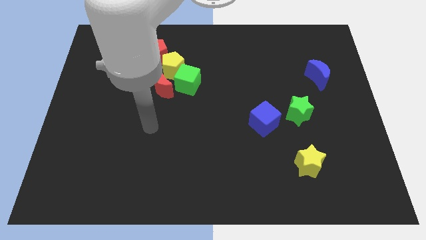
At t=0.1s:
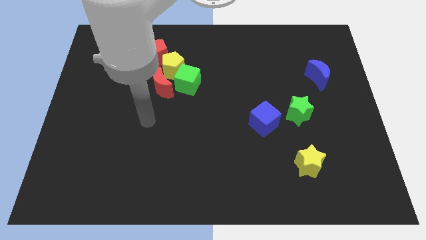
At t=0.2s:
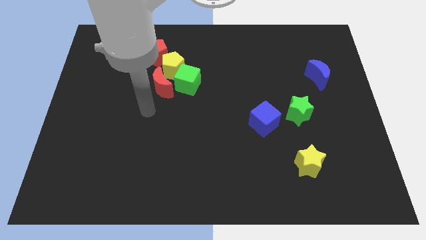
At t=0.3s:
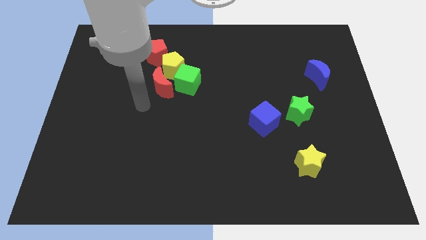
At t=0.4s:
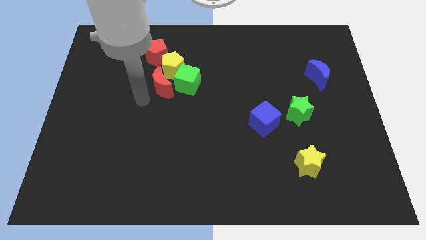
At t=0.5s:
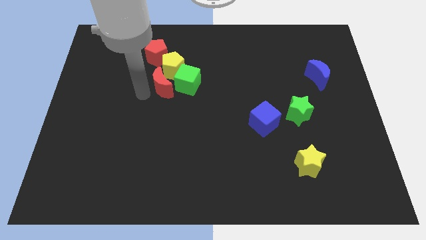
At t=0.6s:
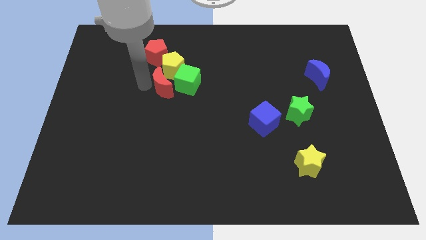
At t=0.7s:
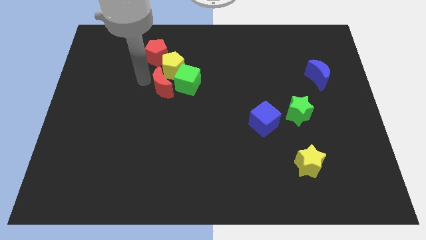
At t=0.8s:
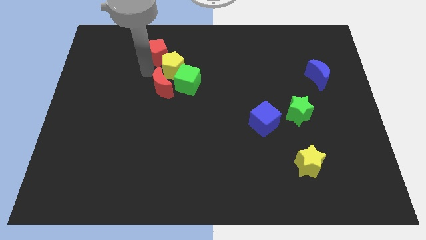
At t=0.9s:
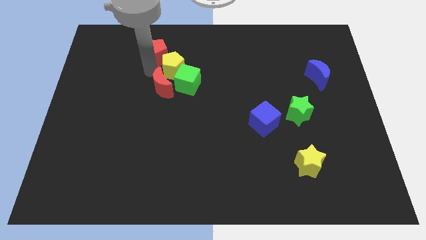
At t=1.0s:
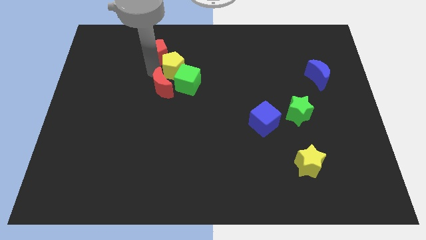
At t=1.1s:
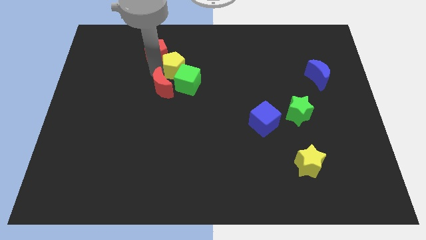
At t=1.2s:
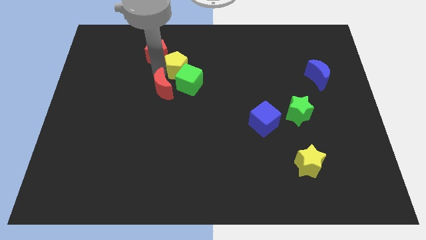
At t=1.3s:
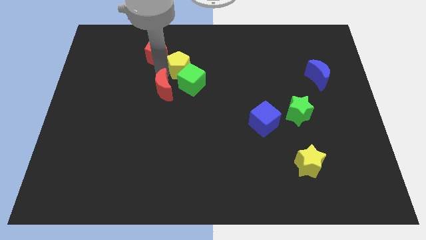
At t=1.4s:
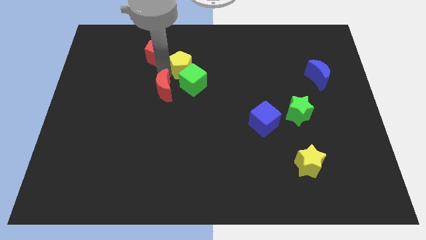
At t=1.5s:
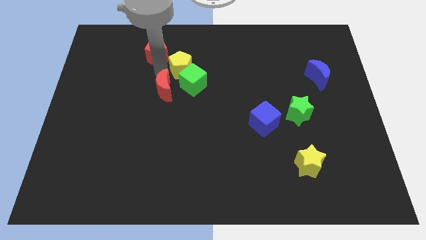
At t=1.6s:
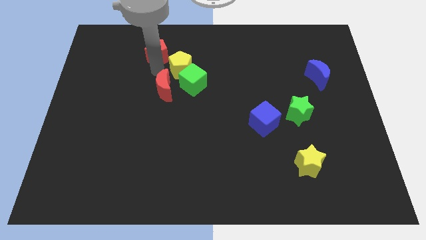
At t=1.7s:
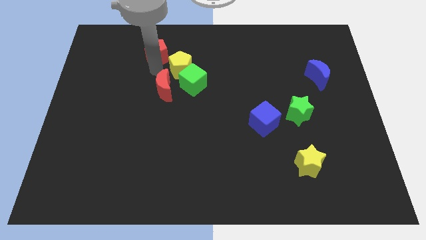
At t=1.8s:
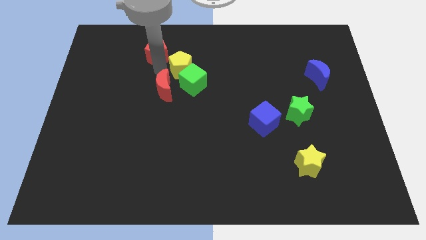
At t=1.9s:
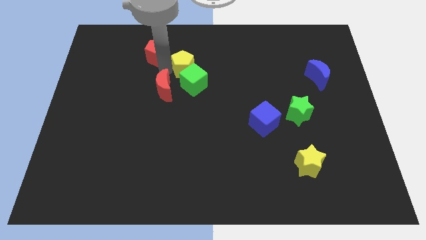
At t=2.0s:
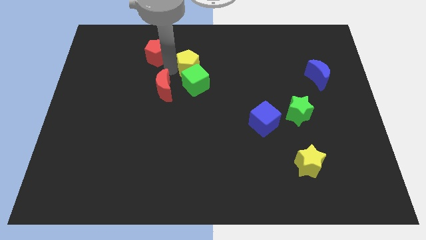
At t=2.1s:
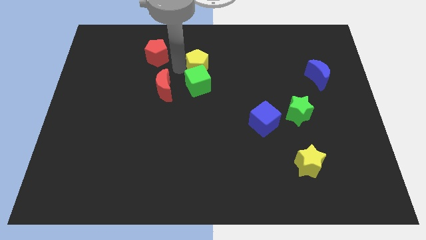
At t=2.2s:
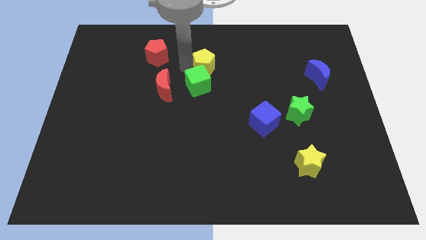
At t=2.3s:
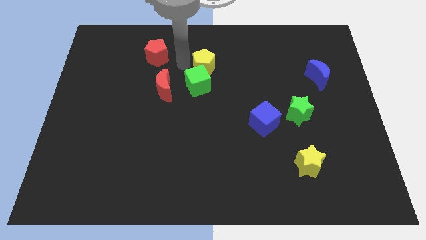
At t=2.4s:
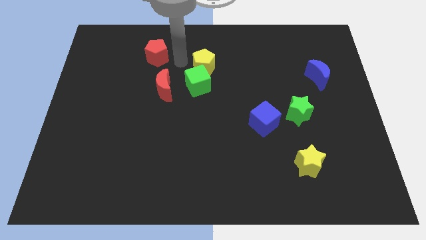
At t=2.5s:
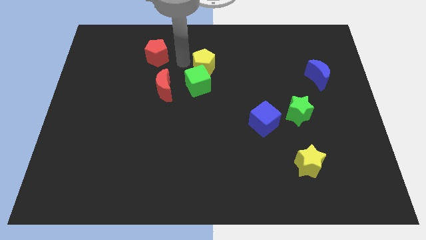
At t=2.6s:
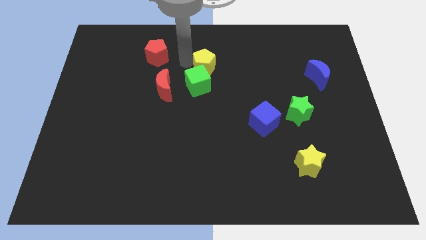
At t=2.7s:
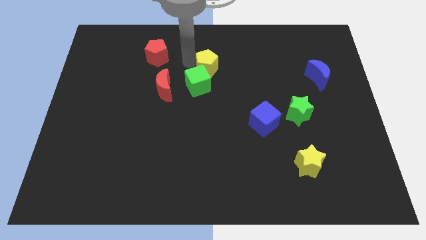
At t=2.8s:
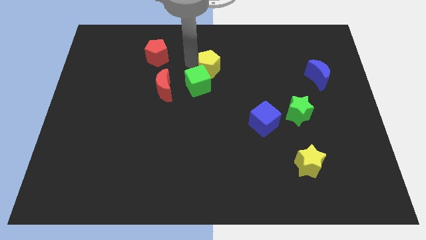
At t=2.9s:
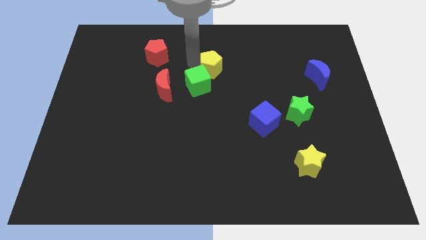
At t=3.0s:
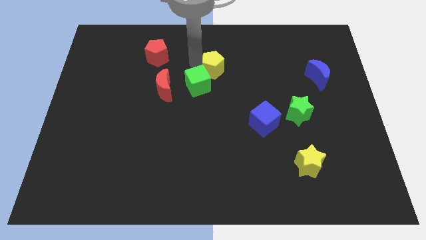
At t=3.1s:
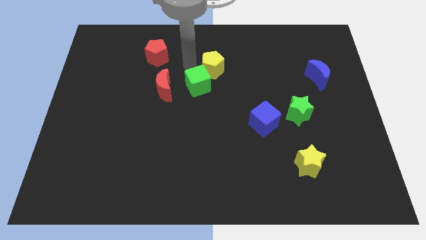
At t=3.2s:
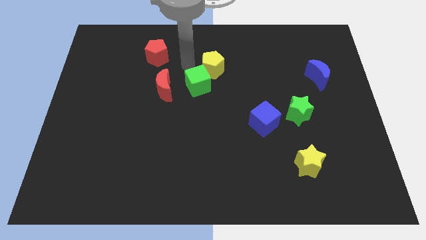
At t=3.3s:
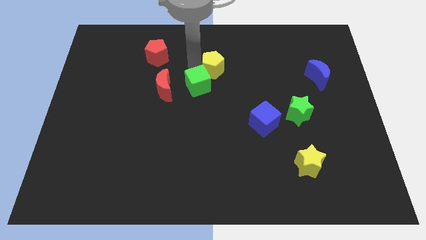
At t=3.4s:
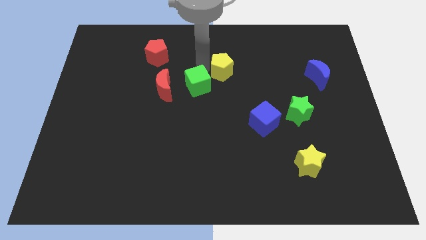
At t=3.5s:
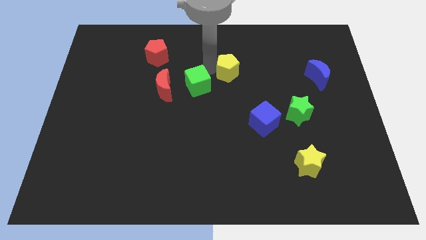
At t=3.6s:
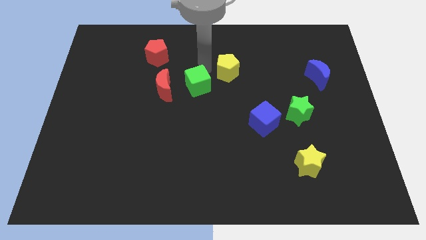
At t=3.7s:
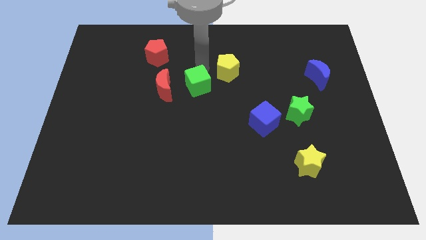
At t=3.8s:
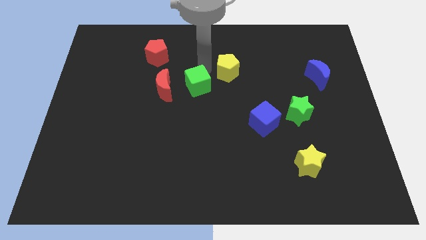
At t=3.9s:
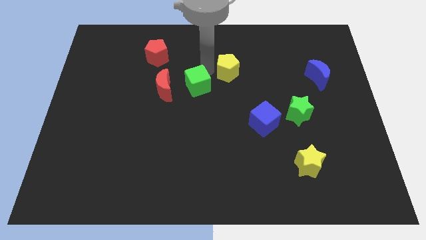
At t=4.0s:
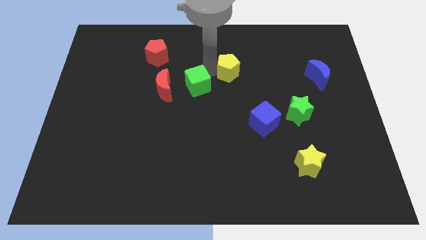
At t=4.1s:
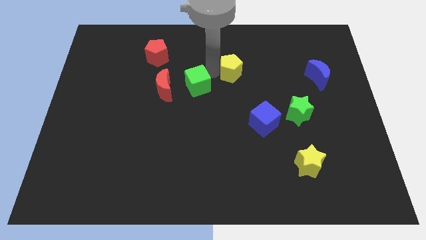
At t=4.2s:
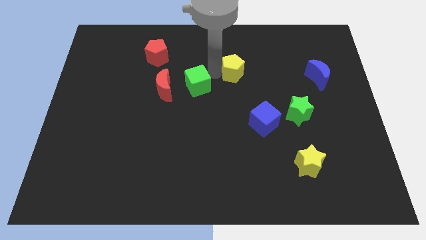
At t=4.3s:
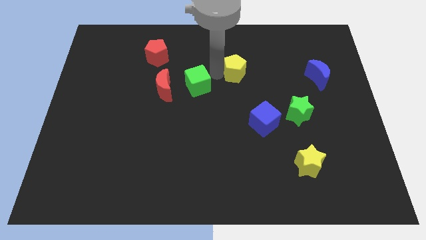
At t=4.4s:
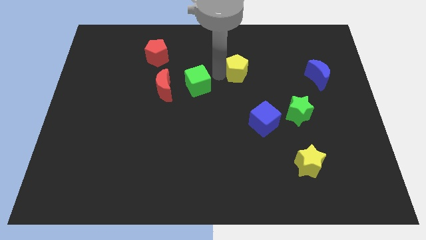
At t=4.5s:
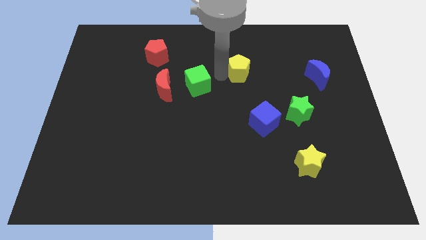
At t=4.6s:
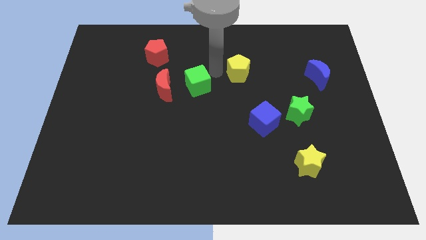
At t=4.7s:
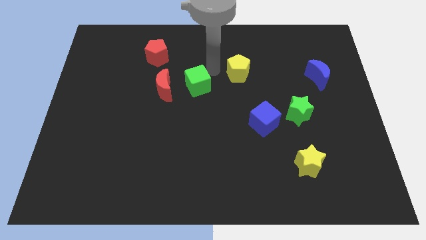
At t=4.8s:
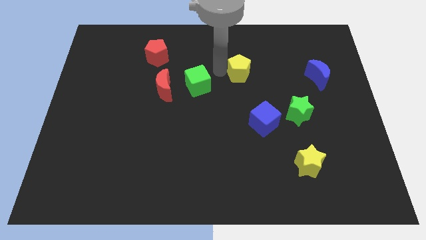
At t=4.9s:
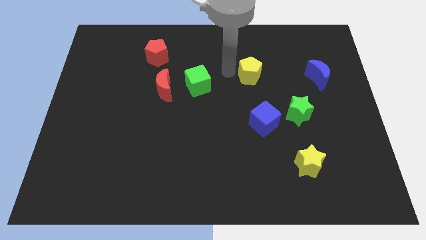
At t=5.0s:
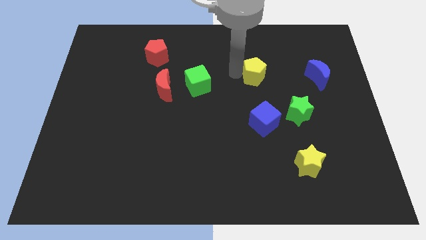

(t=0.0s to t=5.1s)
put the yellow pentagon to the left side of the blue moon

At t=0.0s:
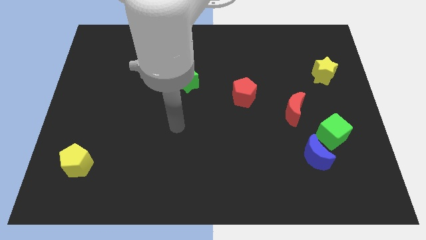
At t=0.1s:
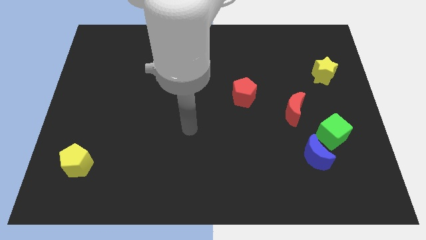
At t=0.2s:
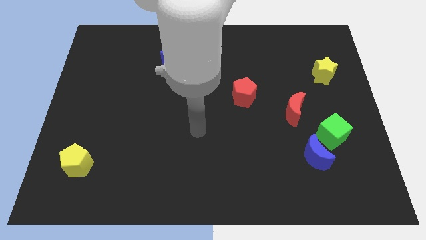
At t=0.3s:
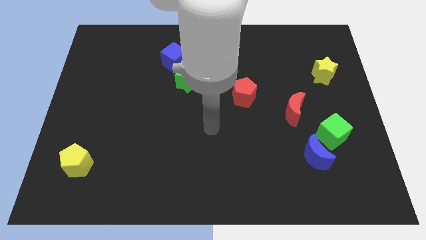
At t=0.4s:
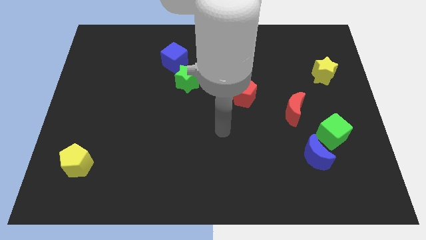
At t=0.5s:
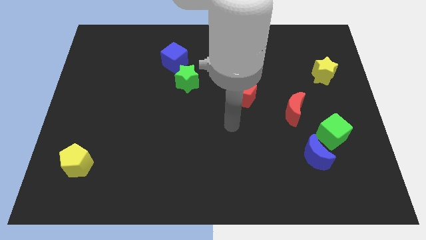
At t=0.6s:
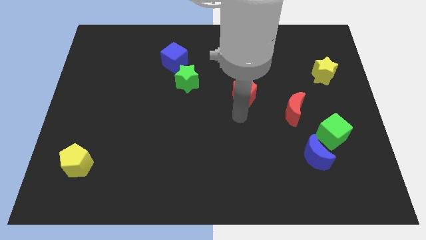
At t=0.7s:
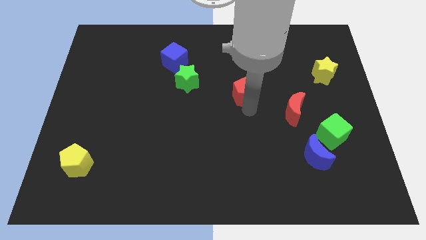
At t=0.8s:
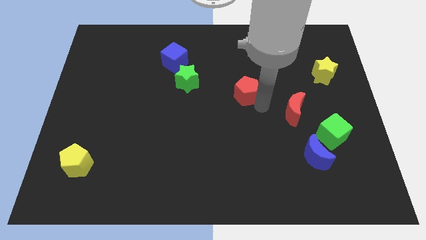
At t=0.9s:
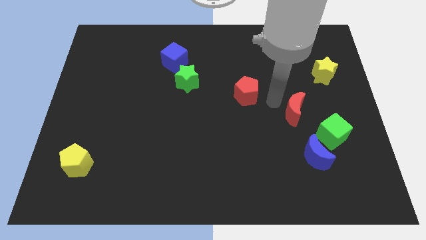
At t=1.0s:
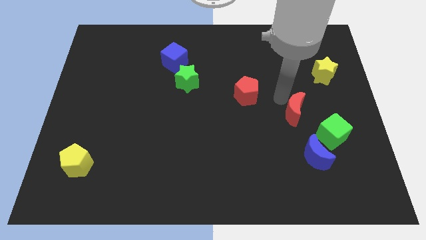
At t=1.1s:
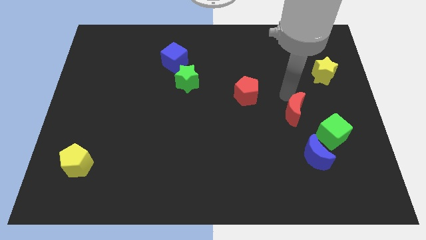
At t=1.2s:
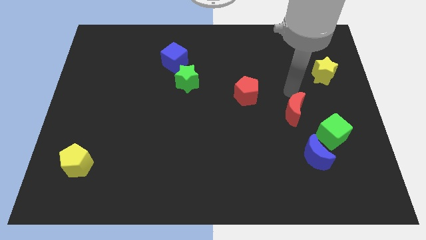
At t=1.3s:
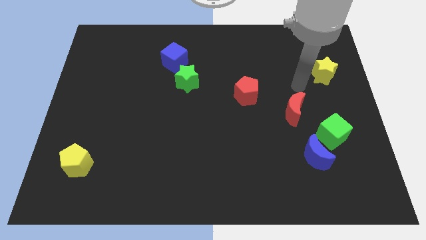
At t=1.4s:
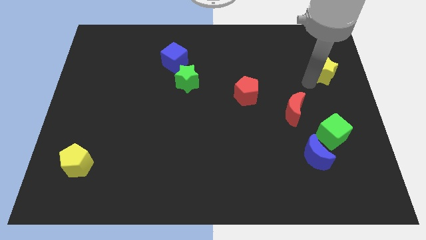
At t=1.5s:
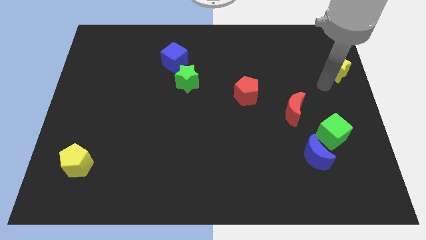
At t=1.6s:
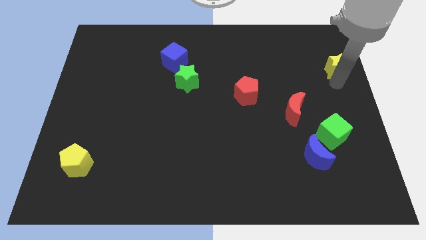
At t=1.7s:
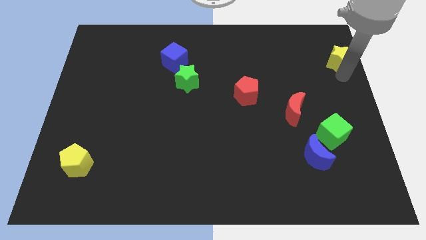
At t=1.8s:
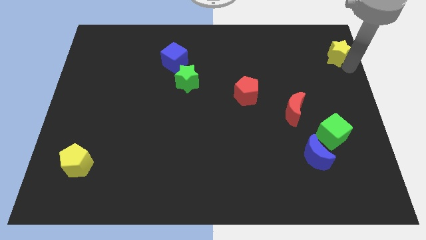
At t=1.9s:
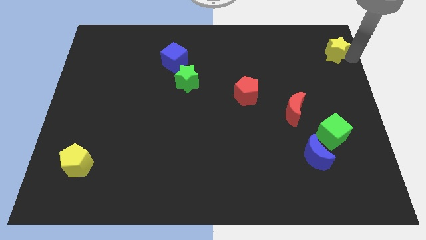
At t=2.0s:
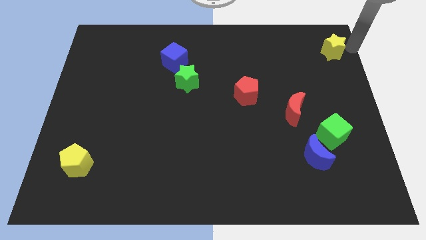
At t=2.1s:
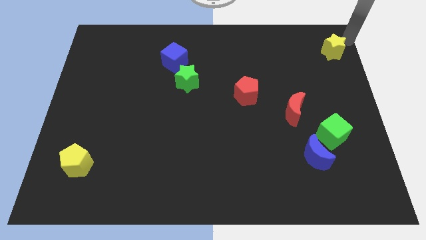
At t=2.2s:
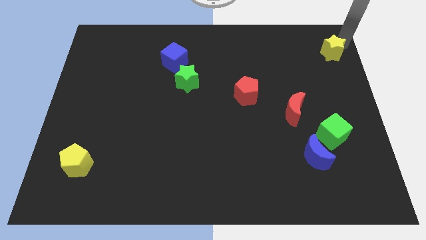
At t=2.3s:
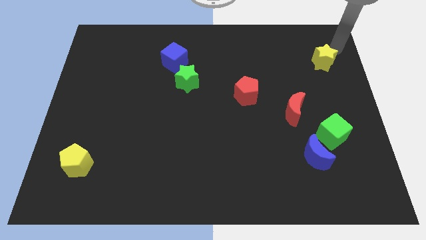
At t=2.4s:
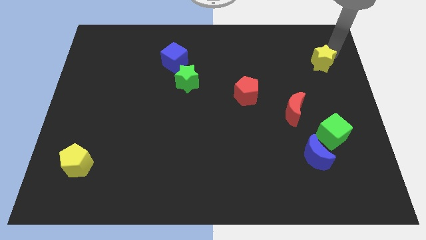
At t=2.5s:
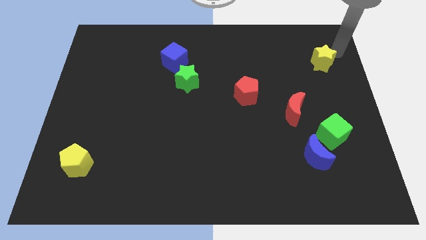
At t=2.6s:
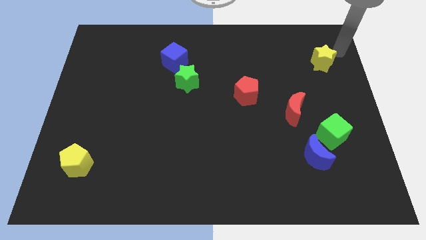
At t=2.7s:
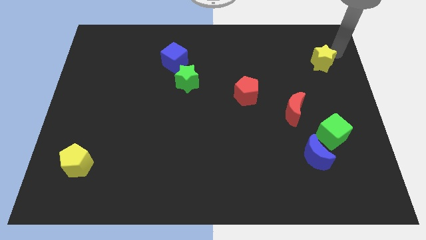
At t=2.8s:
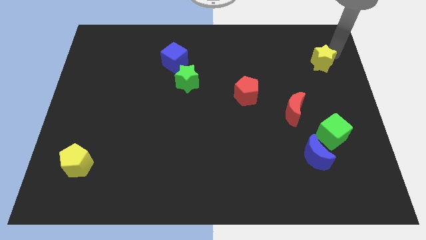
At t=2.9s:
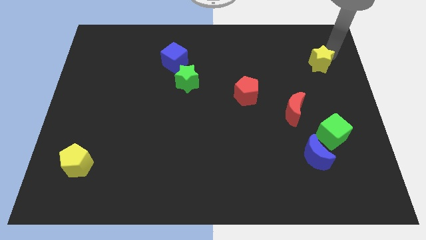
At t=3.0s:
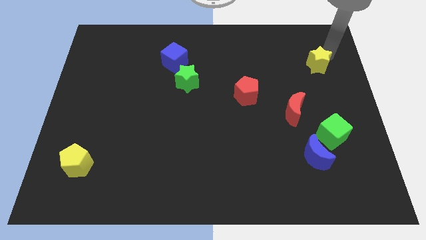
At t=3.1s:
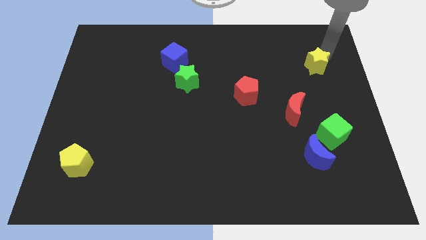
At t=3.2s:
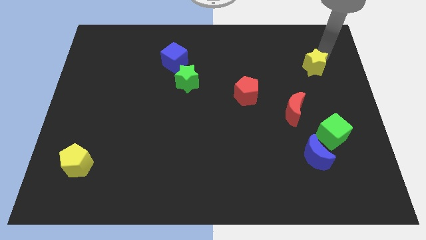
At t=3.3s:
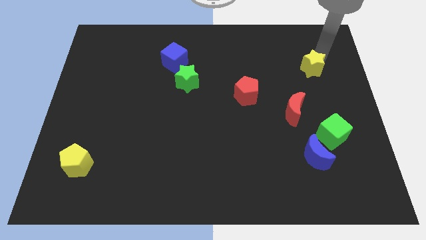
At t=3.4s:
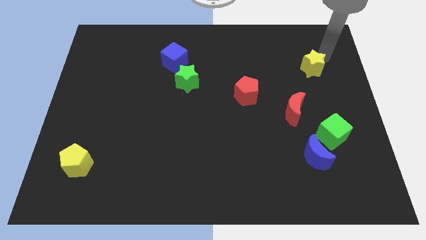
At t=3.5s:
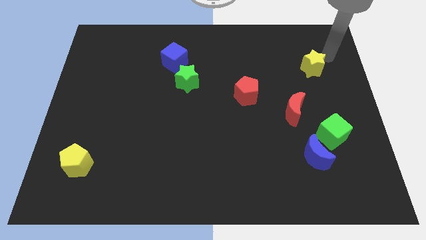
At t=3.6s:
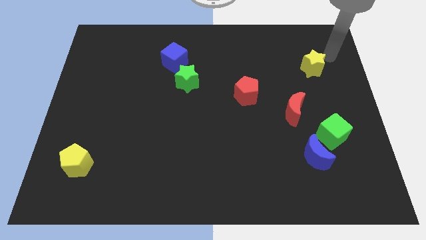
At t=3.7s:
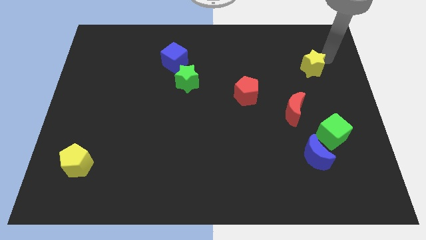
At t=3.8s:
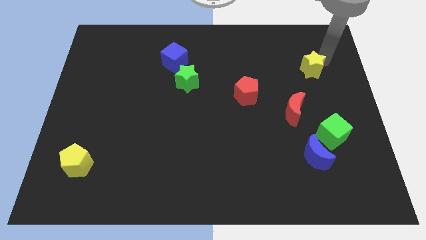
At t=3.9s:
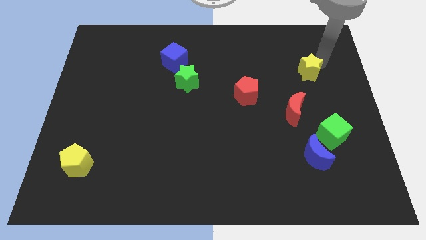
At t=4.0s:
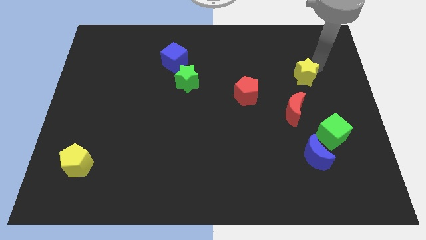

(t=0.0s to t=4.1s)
move the yellow star above the red moon
